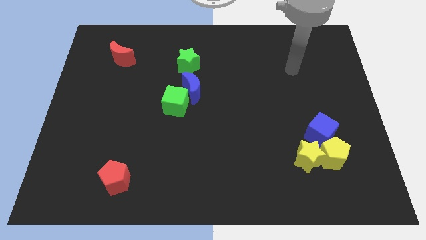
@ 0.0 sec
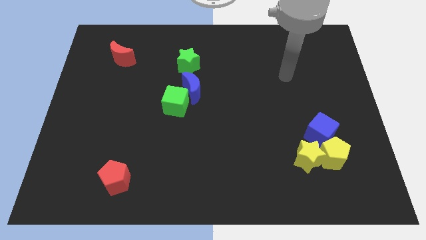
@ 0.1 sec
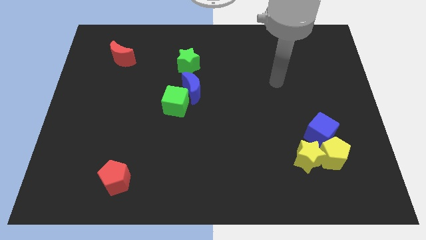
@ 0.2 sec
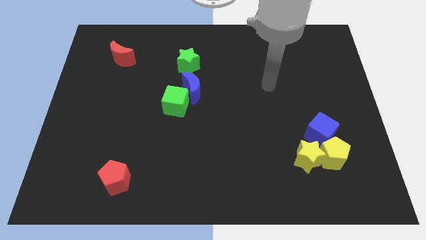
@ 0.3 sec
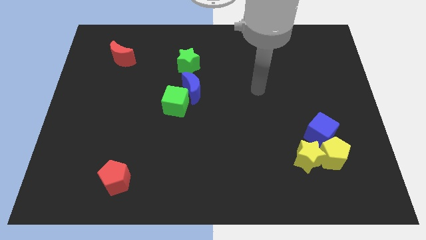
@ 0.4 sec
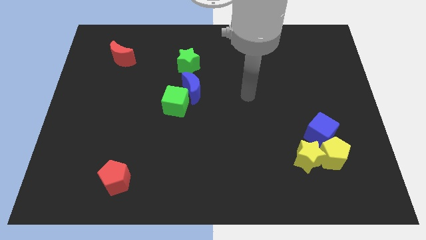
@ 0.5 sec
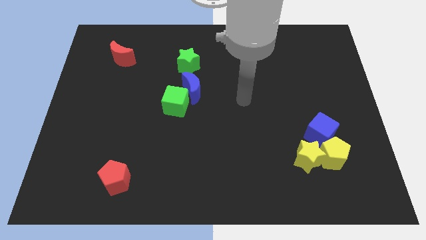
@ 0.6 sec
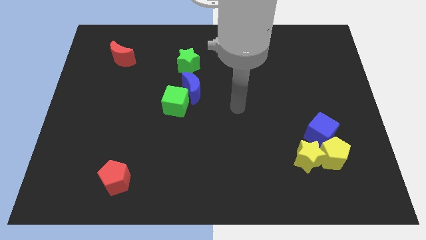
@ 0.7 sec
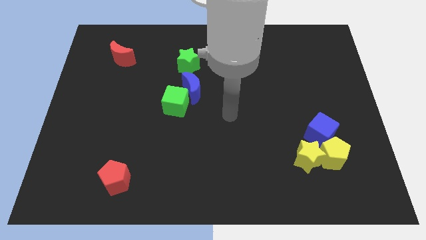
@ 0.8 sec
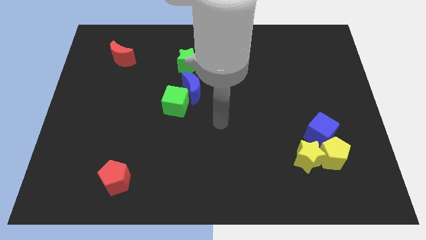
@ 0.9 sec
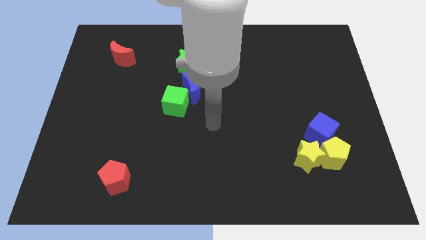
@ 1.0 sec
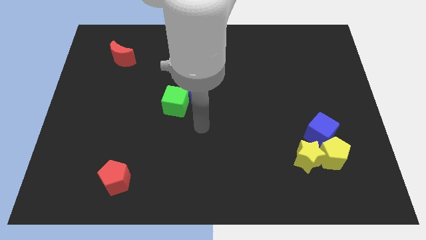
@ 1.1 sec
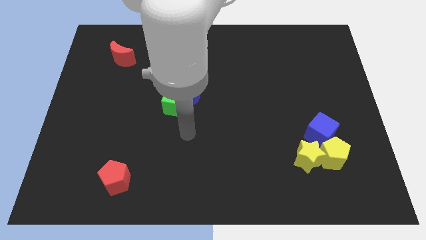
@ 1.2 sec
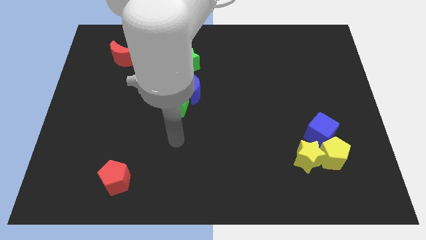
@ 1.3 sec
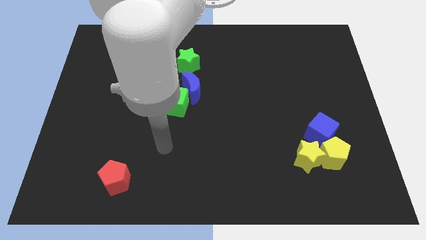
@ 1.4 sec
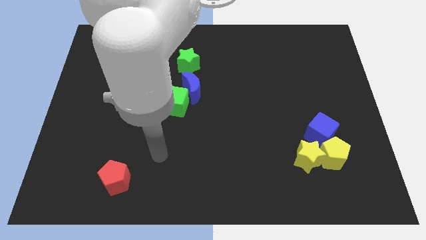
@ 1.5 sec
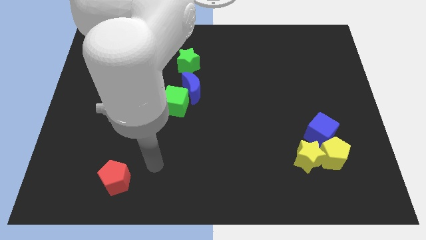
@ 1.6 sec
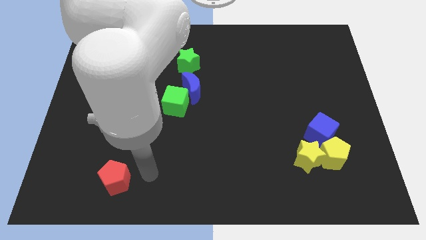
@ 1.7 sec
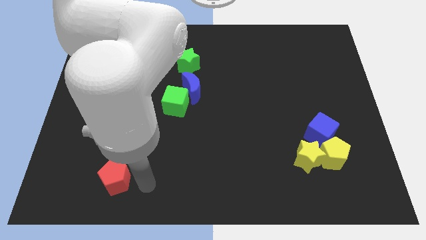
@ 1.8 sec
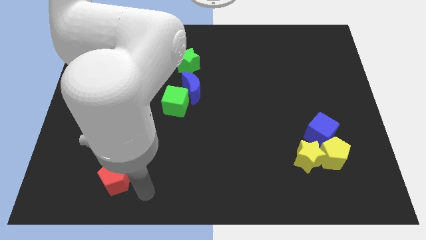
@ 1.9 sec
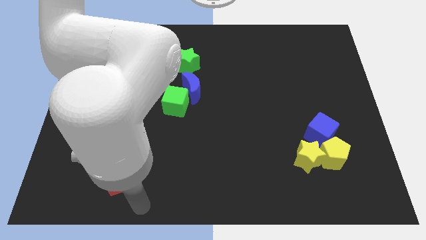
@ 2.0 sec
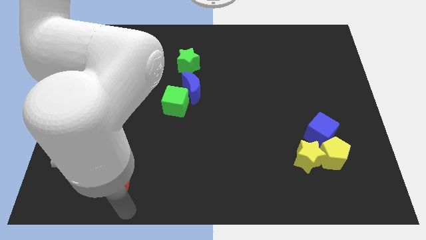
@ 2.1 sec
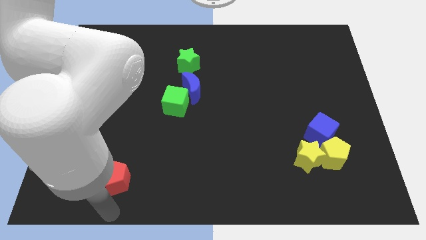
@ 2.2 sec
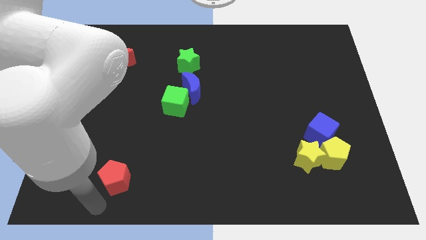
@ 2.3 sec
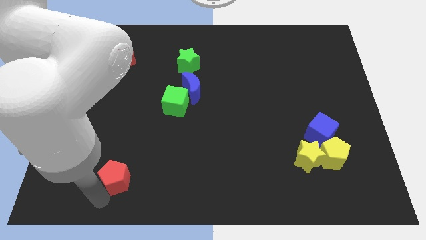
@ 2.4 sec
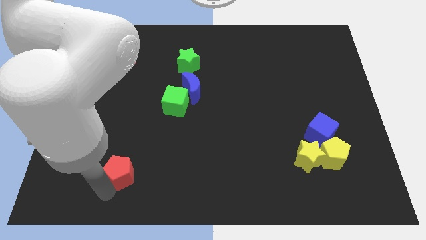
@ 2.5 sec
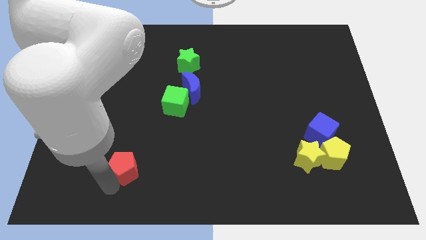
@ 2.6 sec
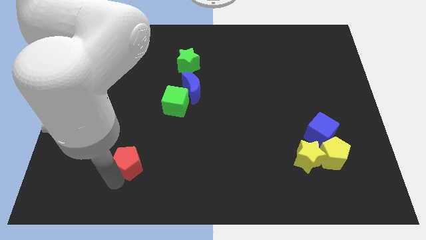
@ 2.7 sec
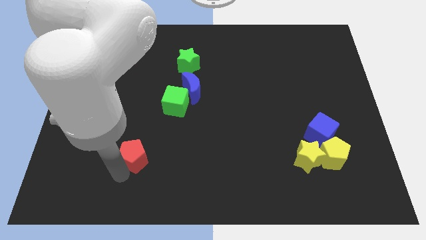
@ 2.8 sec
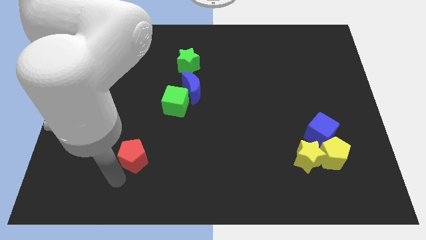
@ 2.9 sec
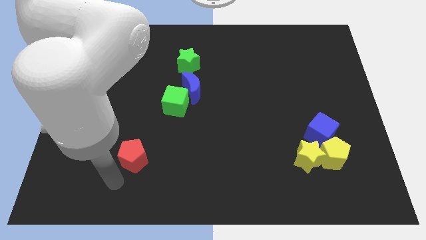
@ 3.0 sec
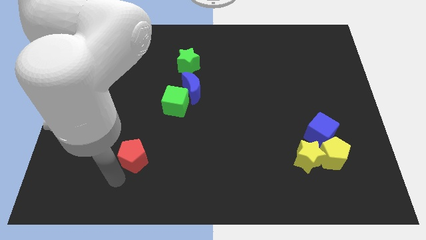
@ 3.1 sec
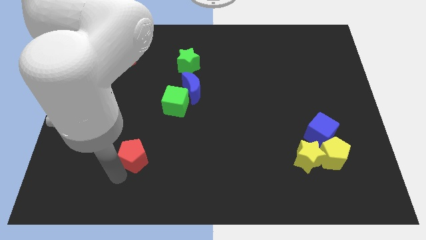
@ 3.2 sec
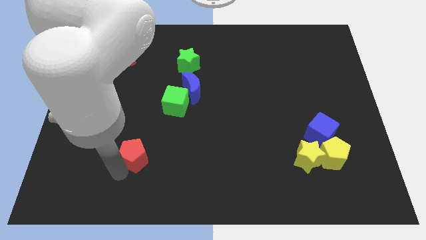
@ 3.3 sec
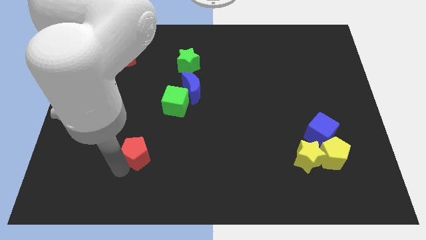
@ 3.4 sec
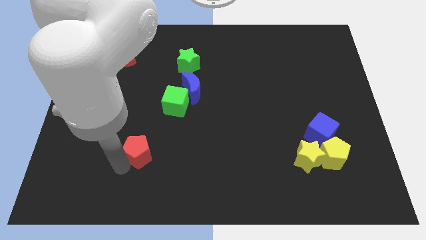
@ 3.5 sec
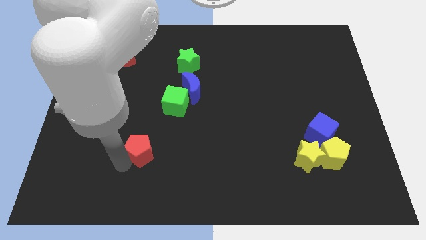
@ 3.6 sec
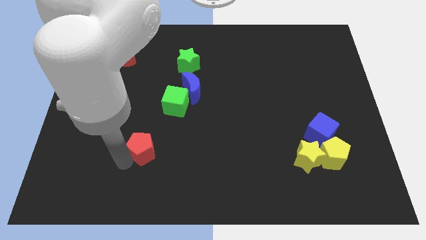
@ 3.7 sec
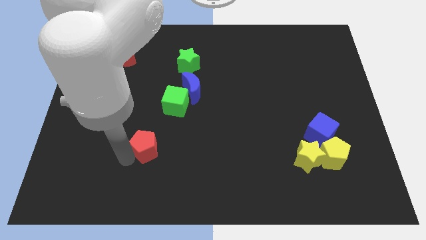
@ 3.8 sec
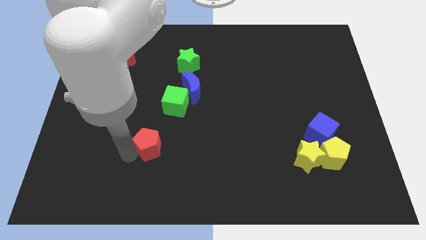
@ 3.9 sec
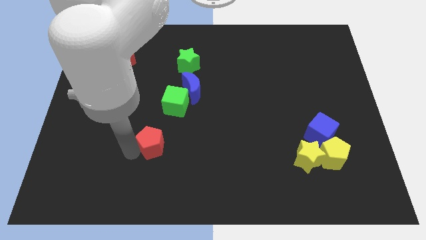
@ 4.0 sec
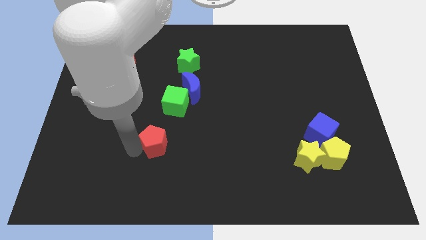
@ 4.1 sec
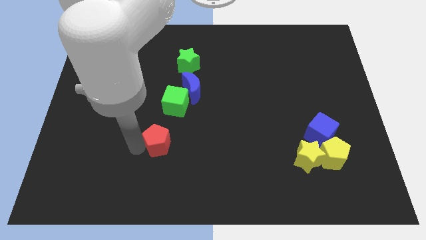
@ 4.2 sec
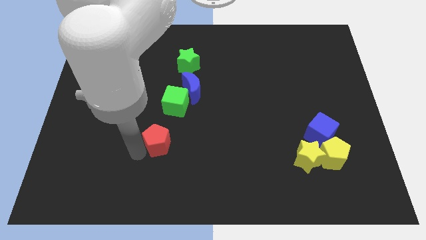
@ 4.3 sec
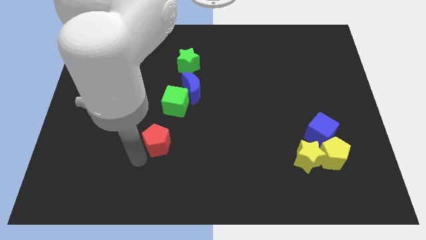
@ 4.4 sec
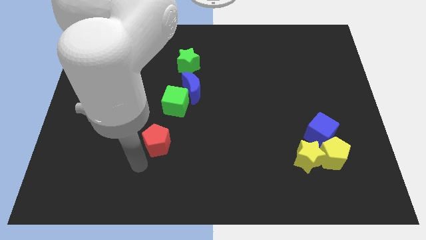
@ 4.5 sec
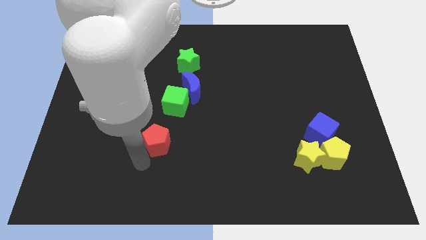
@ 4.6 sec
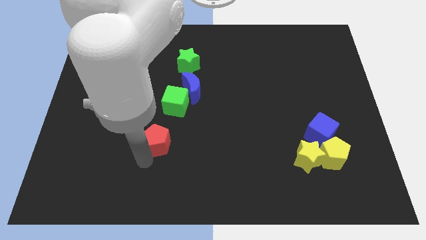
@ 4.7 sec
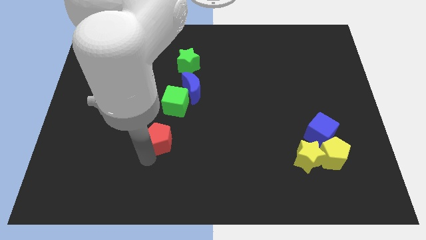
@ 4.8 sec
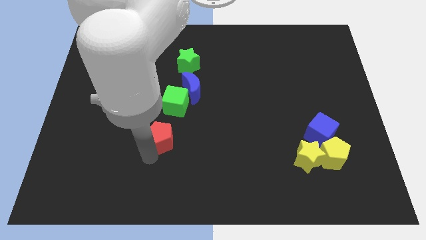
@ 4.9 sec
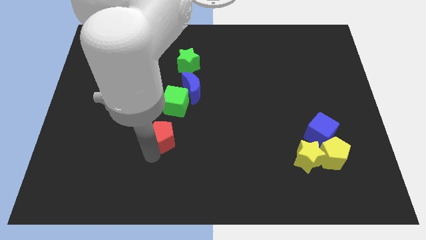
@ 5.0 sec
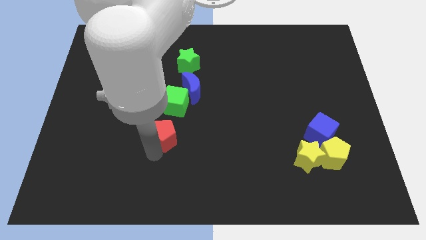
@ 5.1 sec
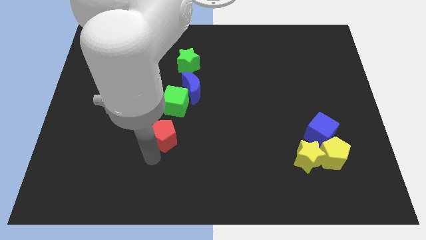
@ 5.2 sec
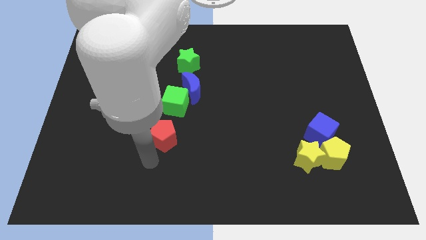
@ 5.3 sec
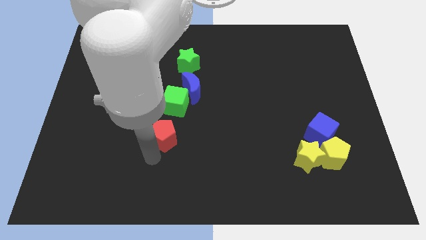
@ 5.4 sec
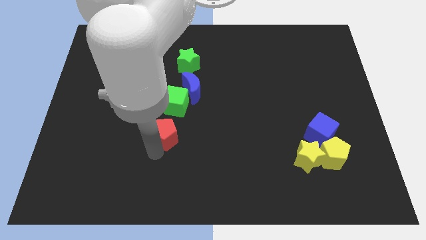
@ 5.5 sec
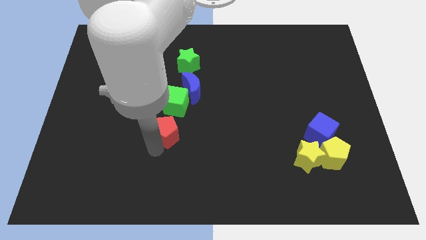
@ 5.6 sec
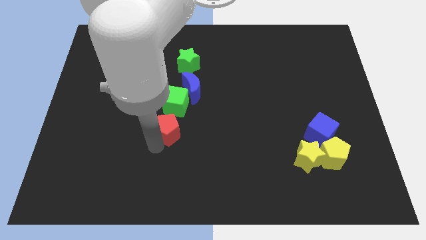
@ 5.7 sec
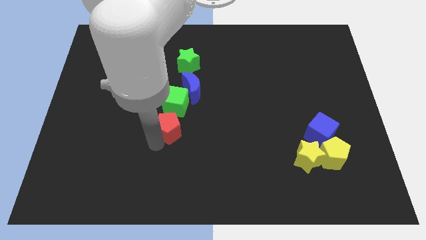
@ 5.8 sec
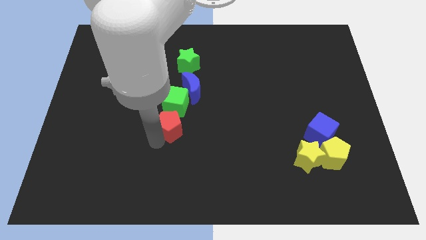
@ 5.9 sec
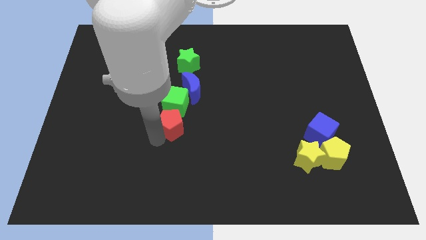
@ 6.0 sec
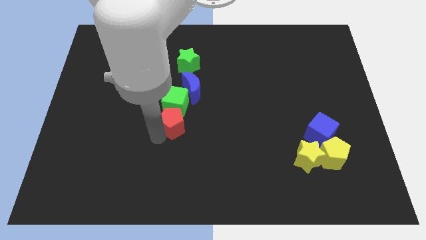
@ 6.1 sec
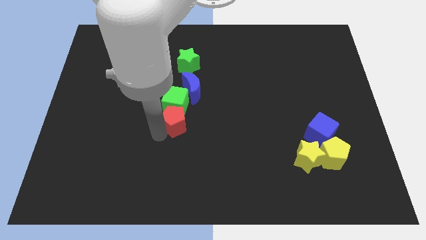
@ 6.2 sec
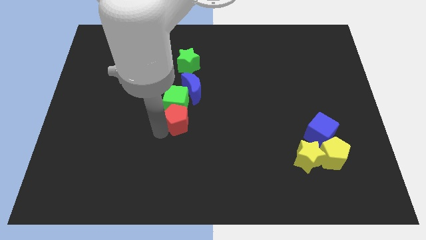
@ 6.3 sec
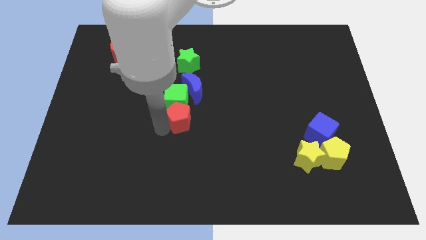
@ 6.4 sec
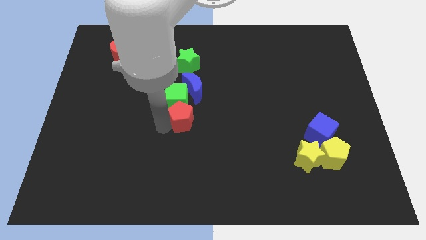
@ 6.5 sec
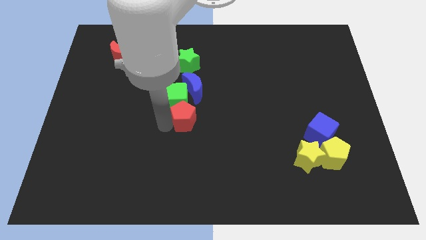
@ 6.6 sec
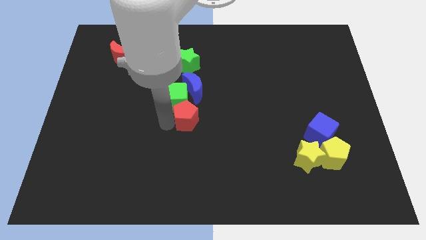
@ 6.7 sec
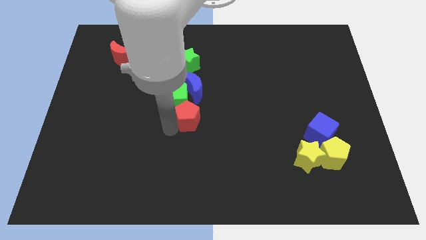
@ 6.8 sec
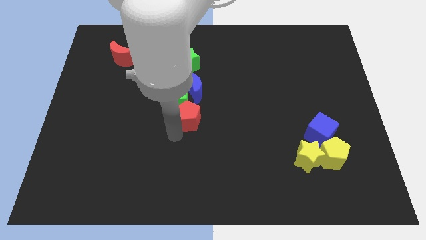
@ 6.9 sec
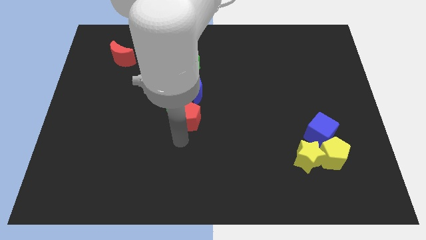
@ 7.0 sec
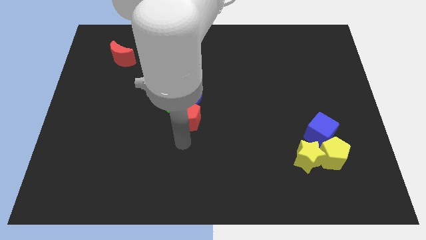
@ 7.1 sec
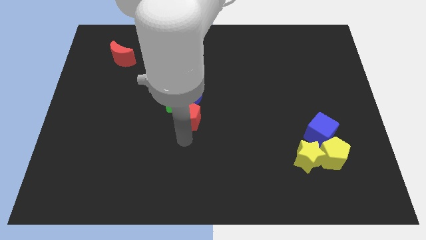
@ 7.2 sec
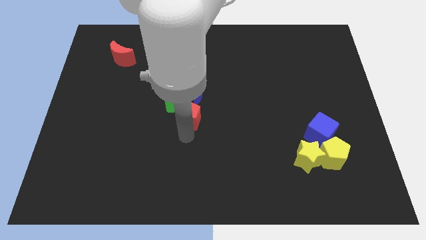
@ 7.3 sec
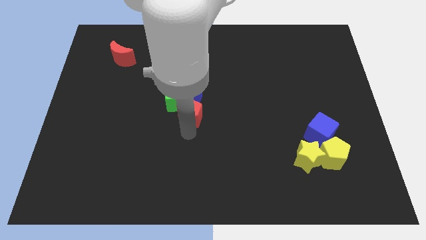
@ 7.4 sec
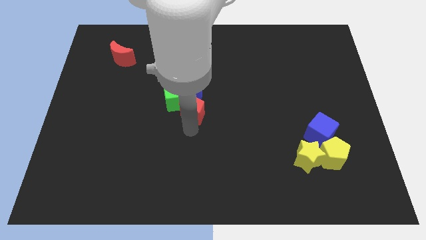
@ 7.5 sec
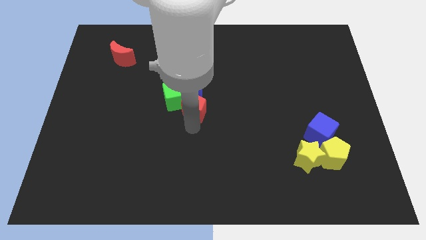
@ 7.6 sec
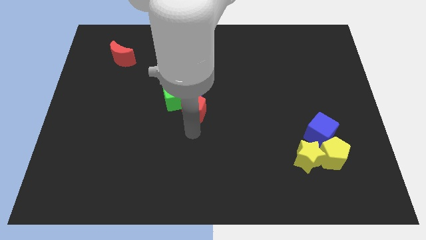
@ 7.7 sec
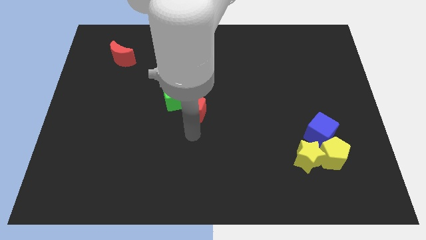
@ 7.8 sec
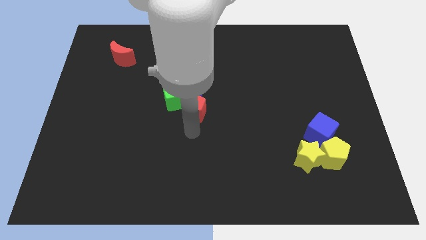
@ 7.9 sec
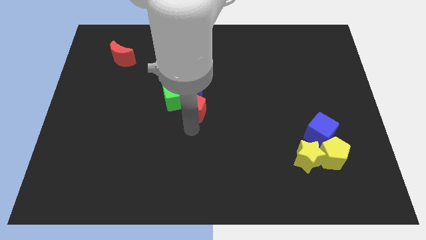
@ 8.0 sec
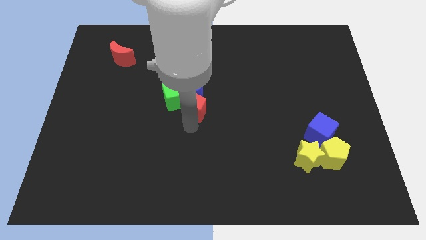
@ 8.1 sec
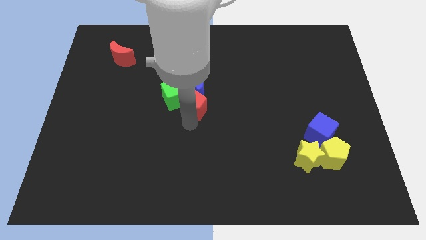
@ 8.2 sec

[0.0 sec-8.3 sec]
push the red pentagon close to the blue moon
